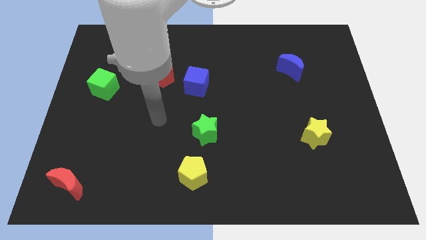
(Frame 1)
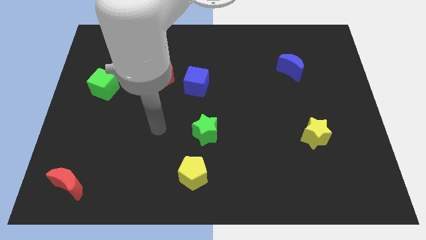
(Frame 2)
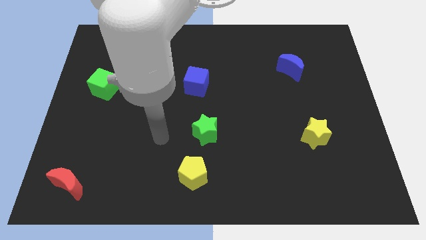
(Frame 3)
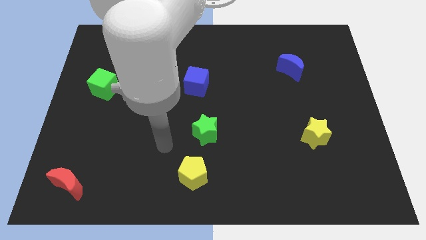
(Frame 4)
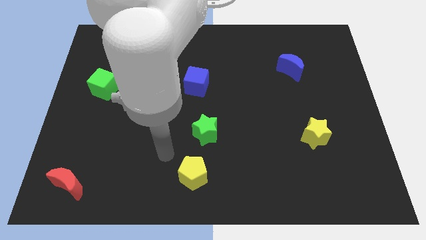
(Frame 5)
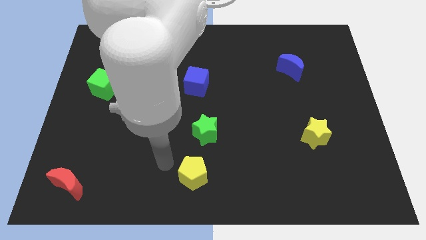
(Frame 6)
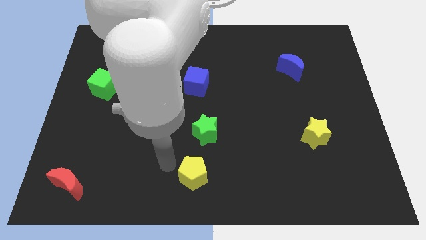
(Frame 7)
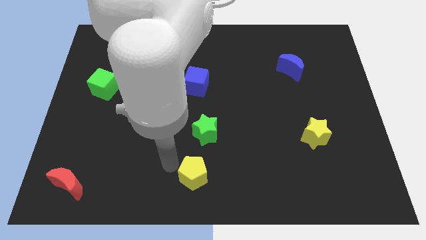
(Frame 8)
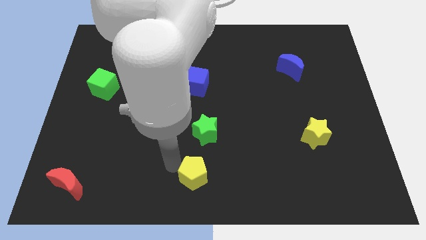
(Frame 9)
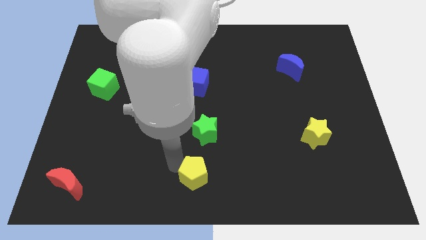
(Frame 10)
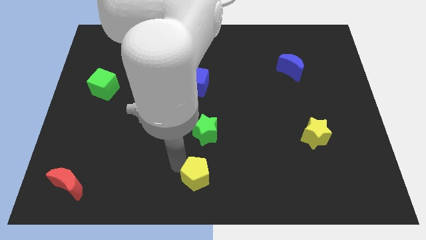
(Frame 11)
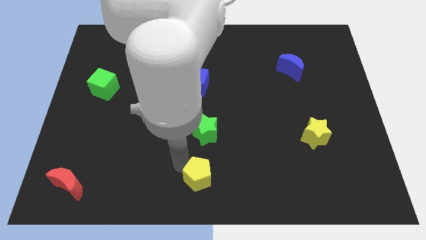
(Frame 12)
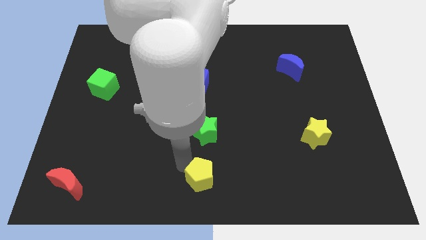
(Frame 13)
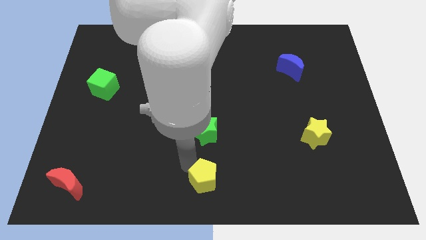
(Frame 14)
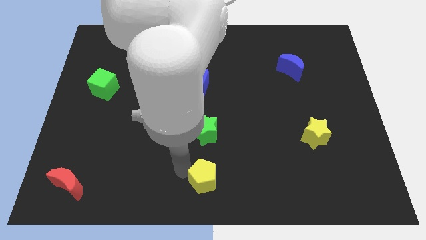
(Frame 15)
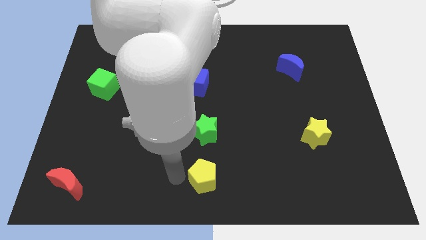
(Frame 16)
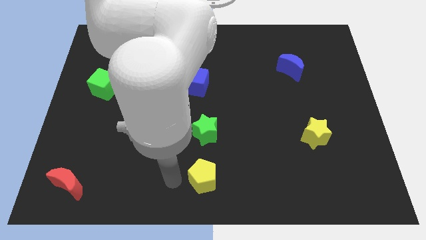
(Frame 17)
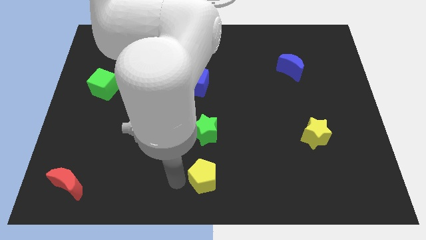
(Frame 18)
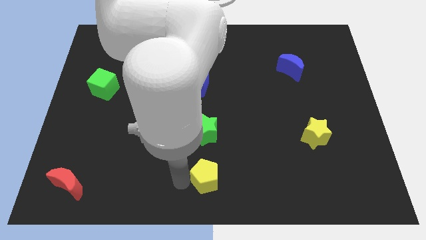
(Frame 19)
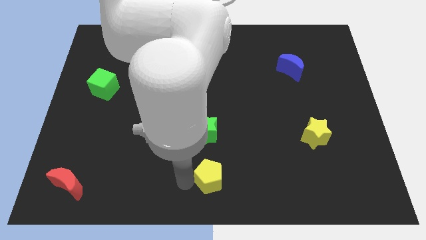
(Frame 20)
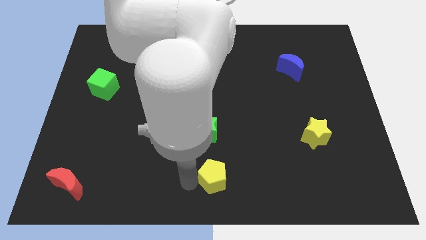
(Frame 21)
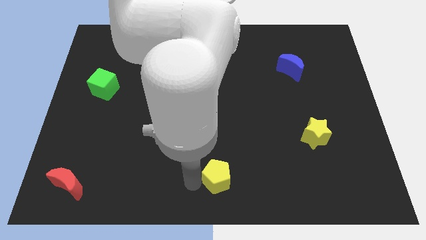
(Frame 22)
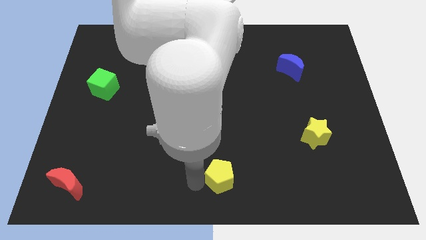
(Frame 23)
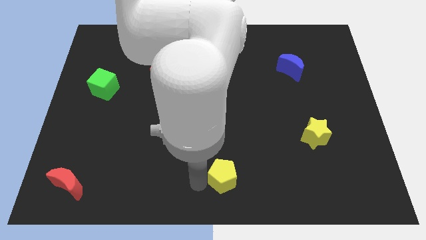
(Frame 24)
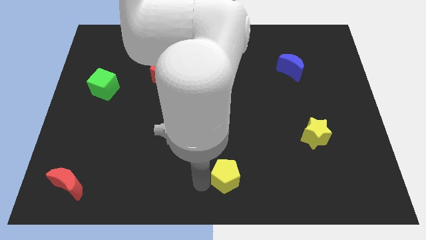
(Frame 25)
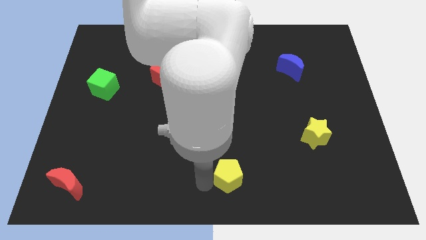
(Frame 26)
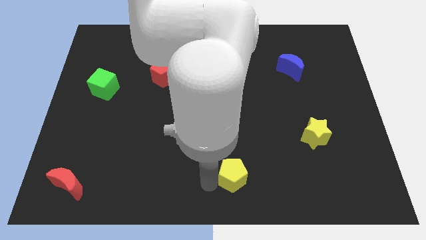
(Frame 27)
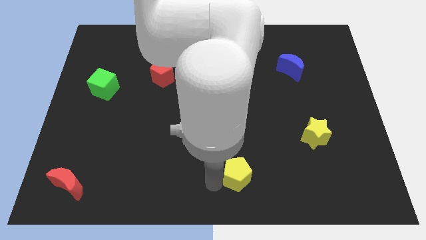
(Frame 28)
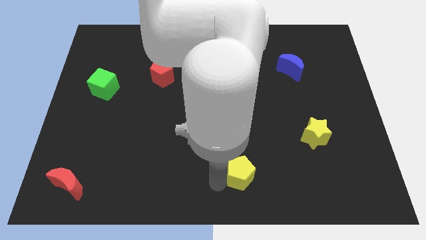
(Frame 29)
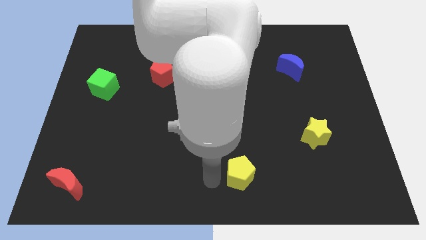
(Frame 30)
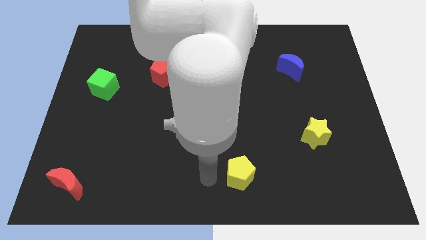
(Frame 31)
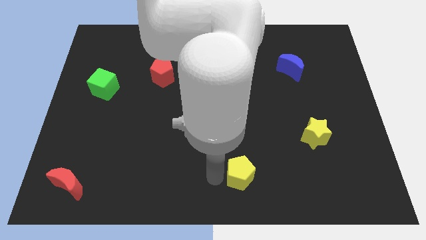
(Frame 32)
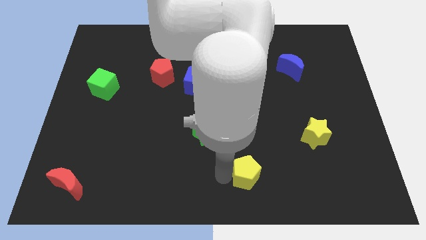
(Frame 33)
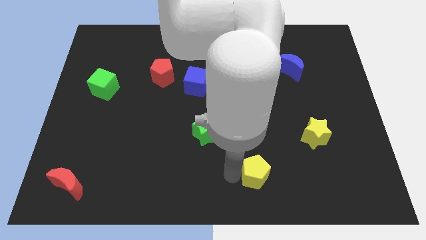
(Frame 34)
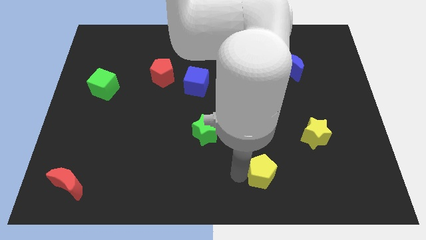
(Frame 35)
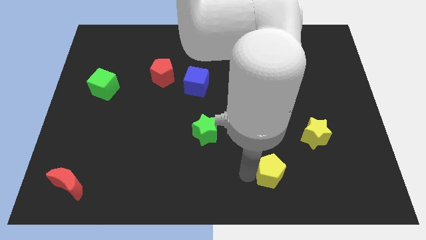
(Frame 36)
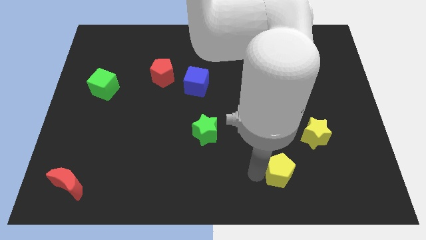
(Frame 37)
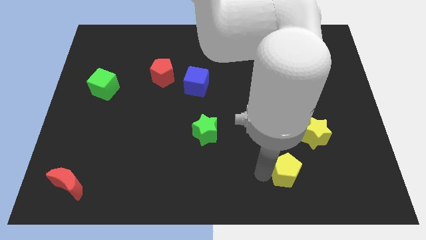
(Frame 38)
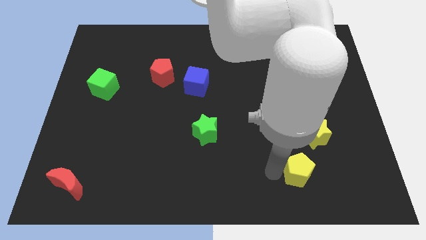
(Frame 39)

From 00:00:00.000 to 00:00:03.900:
slide the yellow pentagon right

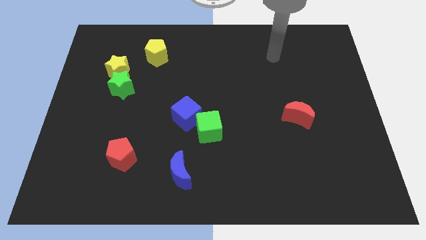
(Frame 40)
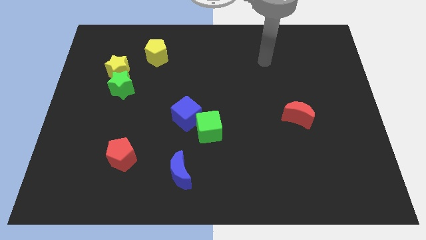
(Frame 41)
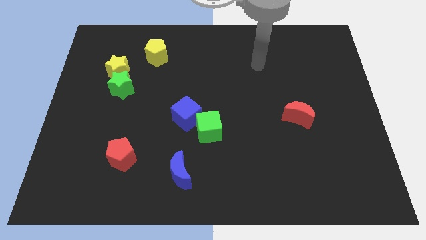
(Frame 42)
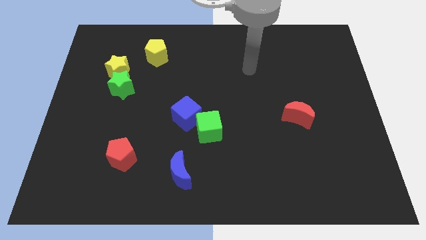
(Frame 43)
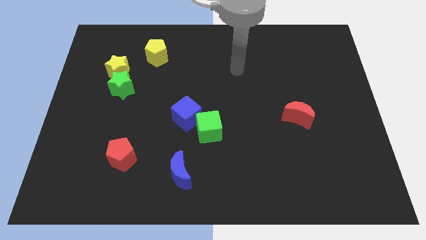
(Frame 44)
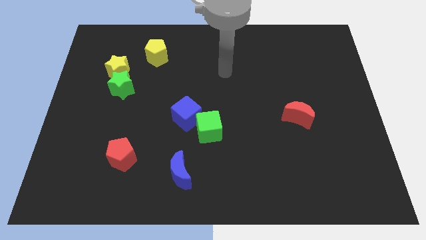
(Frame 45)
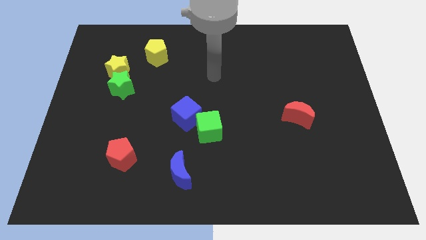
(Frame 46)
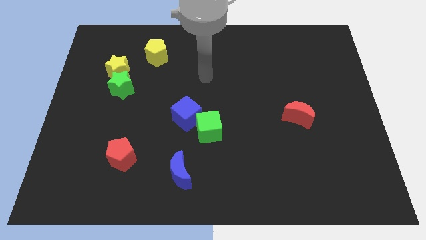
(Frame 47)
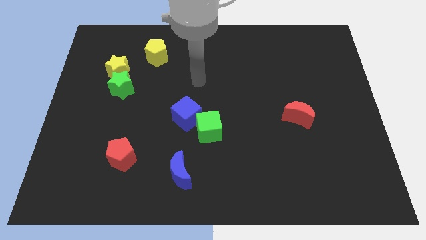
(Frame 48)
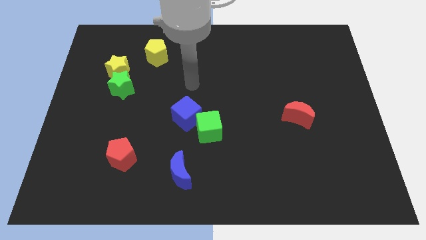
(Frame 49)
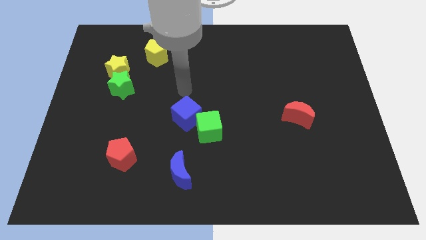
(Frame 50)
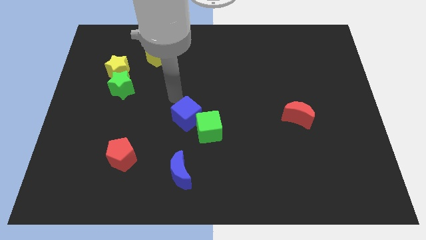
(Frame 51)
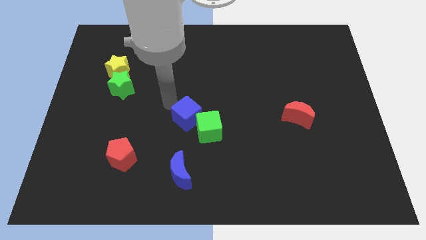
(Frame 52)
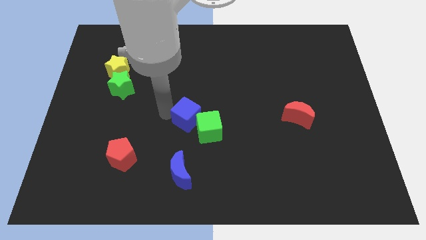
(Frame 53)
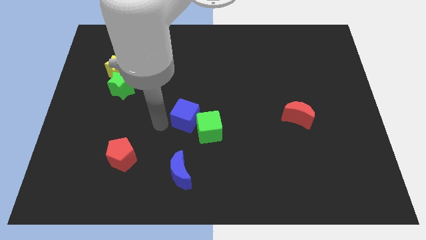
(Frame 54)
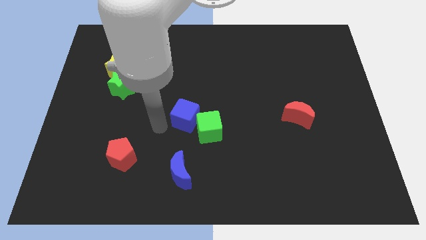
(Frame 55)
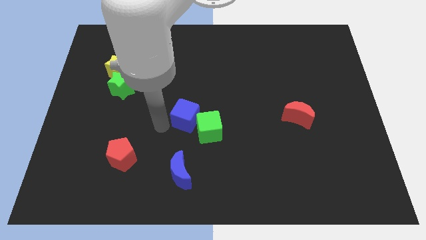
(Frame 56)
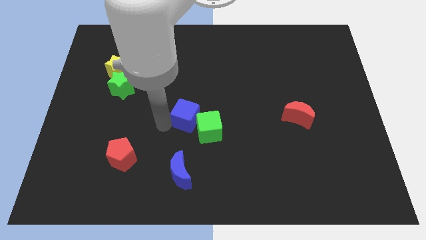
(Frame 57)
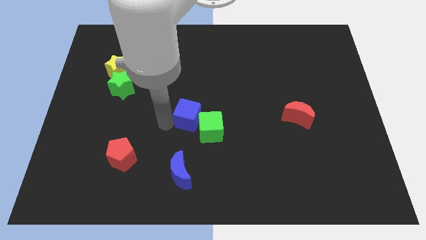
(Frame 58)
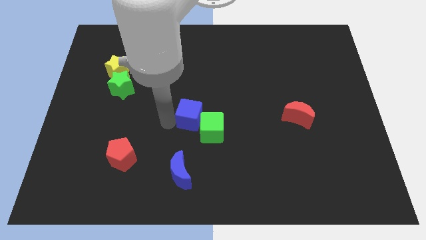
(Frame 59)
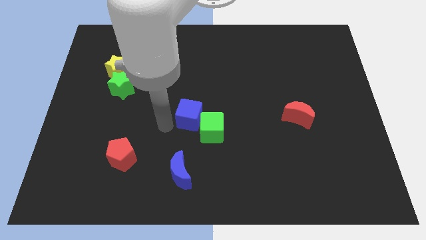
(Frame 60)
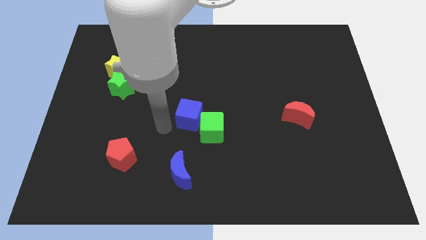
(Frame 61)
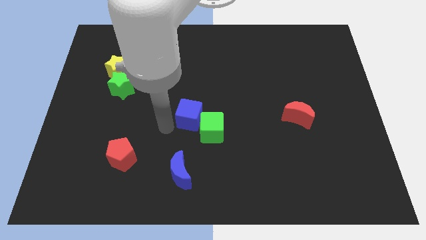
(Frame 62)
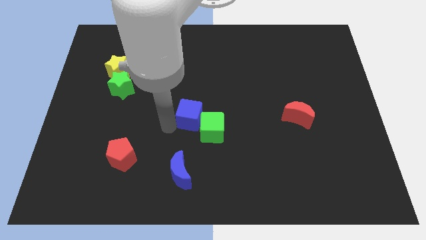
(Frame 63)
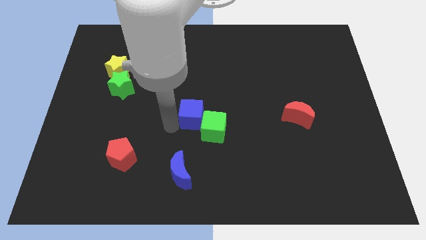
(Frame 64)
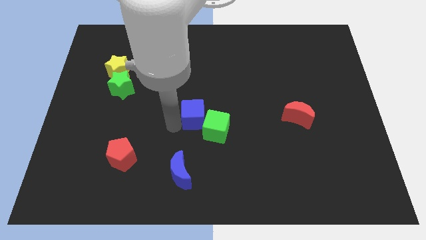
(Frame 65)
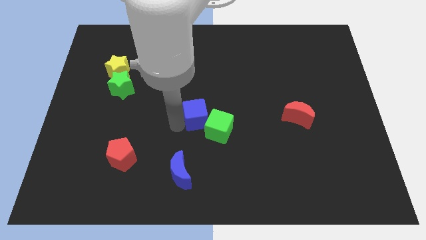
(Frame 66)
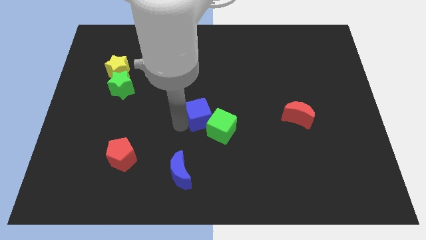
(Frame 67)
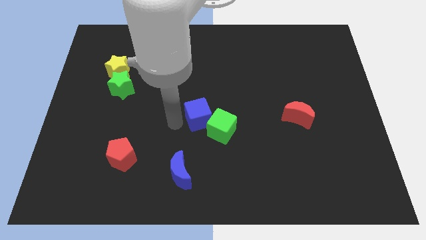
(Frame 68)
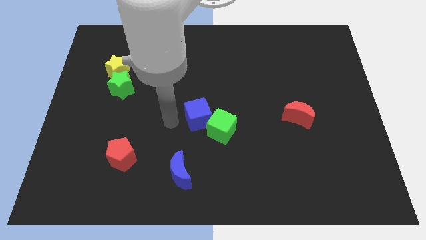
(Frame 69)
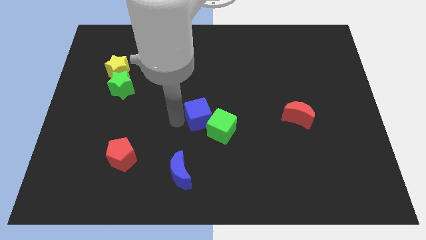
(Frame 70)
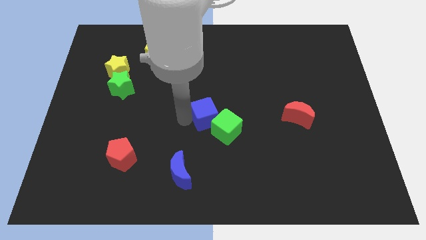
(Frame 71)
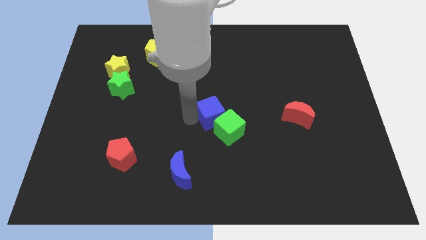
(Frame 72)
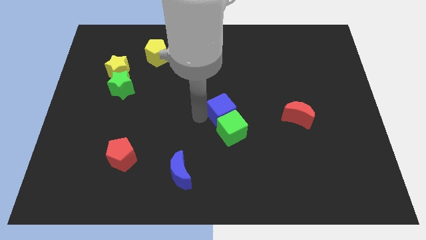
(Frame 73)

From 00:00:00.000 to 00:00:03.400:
push the blue cube slightly to the right

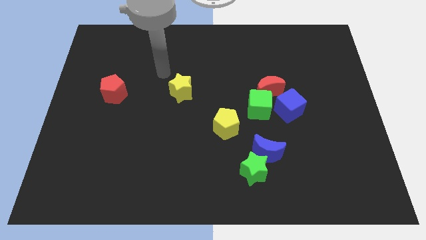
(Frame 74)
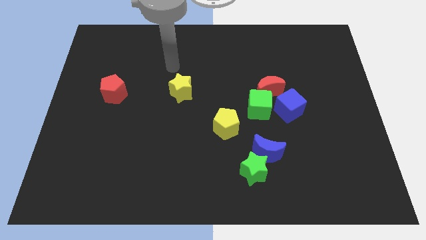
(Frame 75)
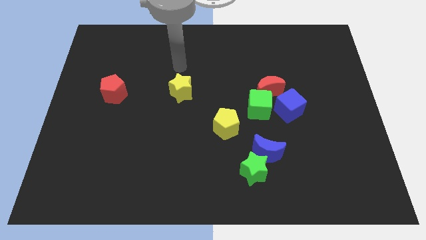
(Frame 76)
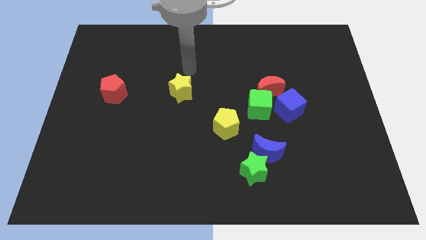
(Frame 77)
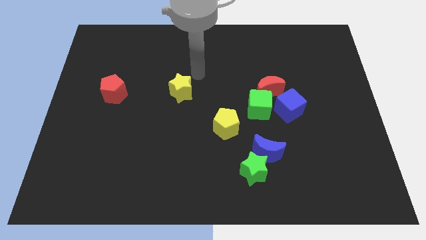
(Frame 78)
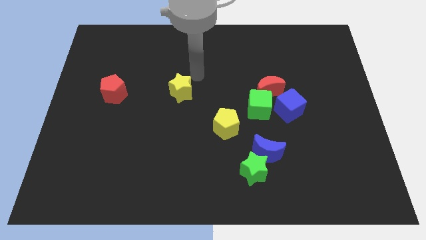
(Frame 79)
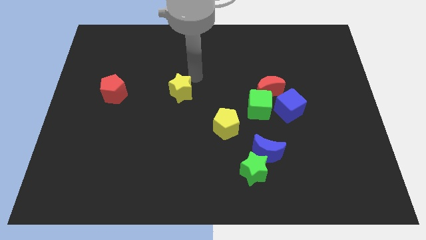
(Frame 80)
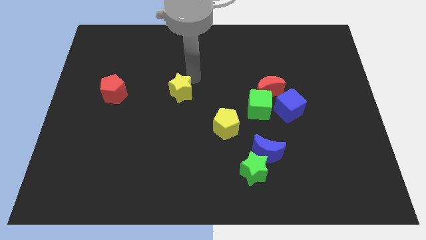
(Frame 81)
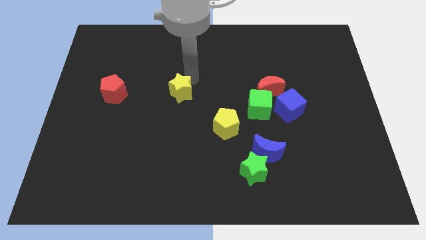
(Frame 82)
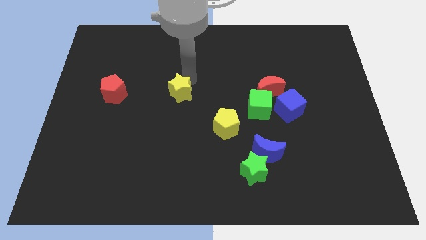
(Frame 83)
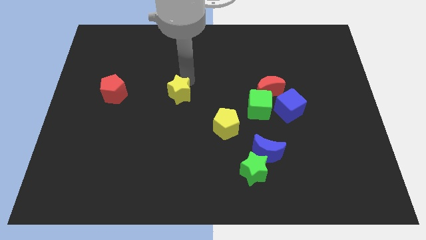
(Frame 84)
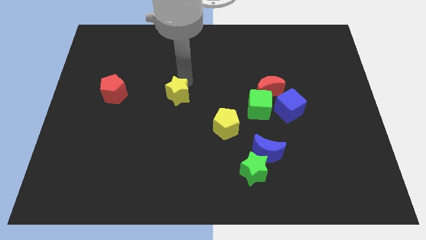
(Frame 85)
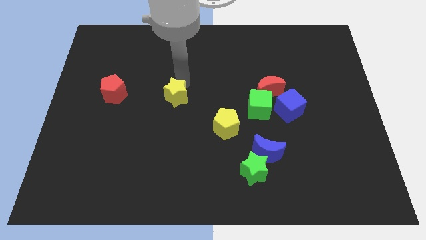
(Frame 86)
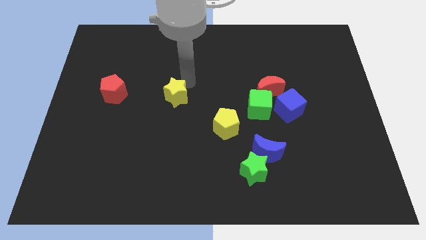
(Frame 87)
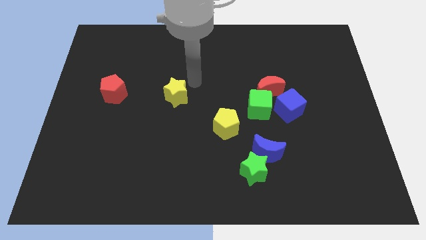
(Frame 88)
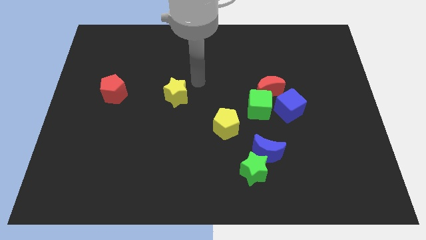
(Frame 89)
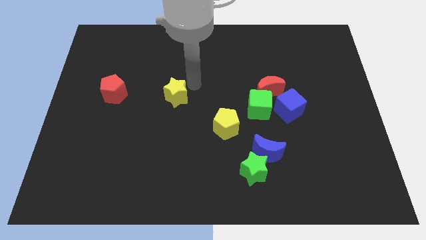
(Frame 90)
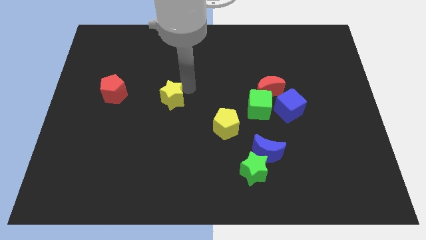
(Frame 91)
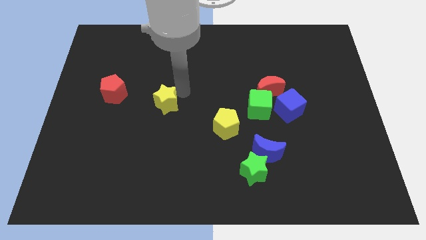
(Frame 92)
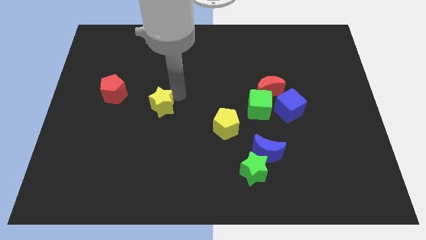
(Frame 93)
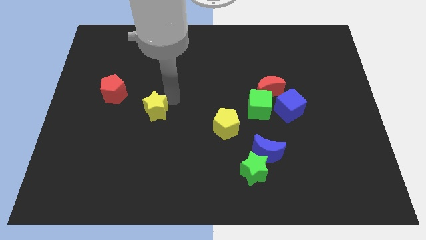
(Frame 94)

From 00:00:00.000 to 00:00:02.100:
slightly push the yellow star diagonally downwards and to the left
